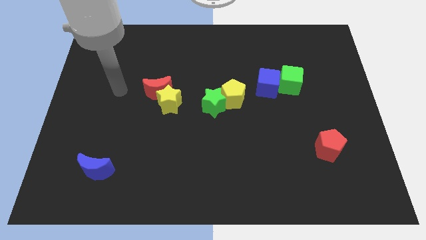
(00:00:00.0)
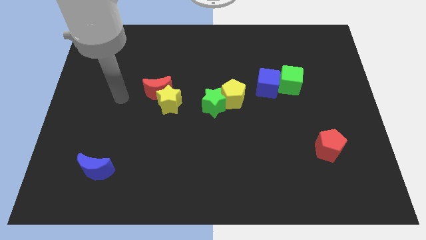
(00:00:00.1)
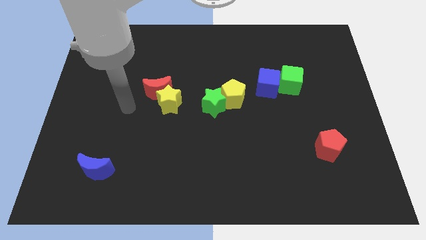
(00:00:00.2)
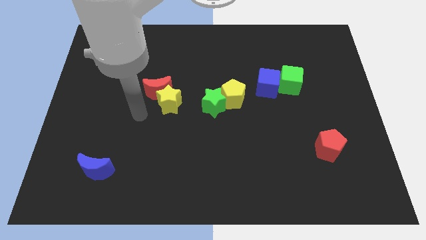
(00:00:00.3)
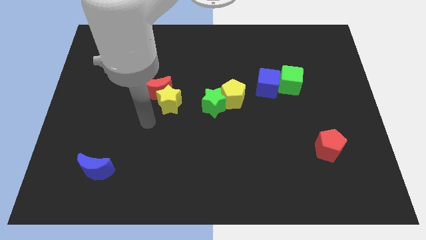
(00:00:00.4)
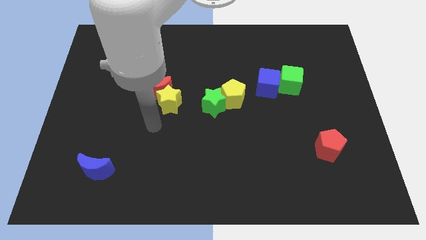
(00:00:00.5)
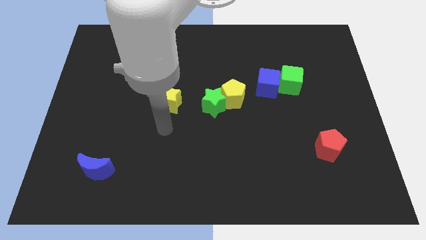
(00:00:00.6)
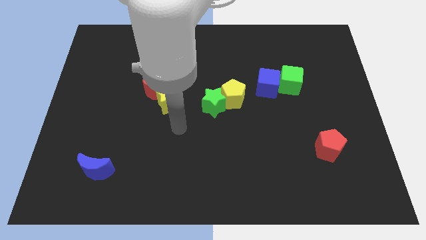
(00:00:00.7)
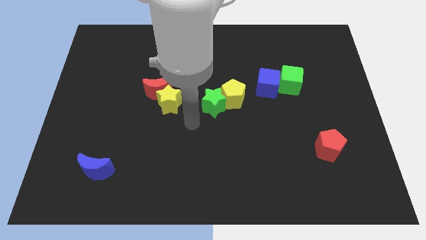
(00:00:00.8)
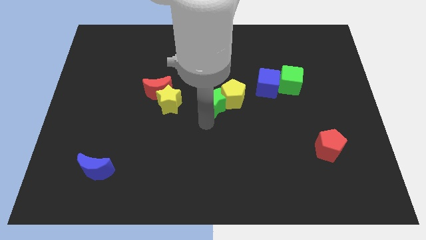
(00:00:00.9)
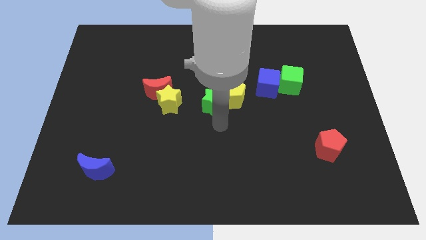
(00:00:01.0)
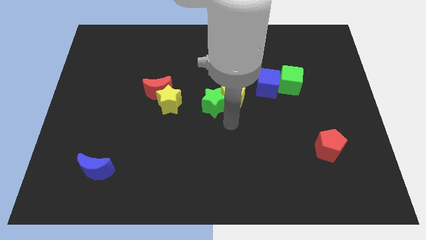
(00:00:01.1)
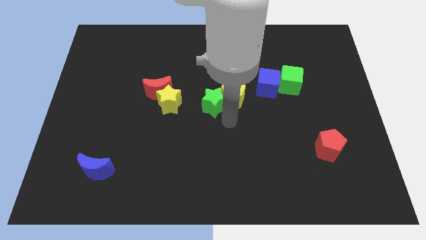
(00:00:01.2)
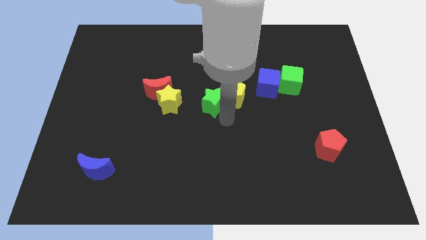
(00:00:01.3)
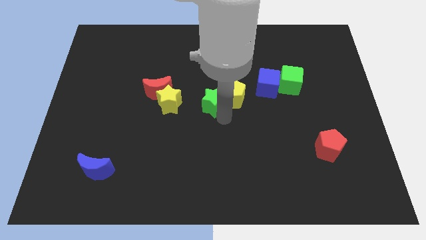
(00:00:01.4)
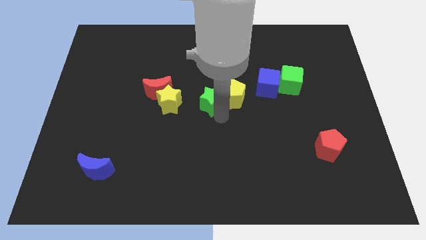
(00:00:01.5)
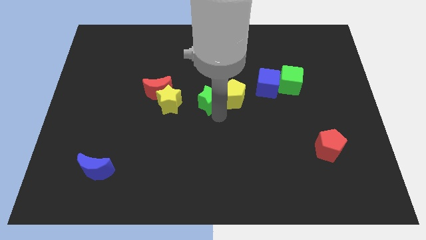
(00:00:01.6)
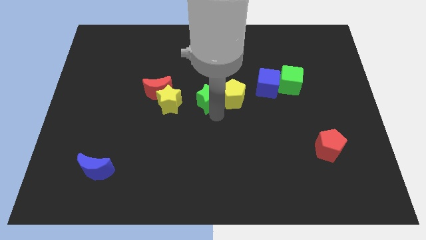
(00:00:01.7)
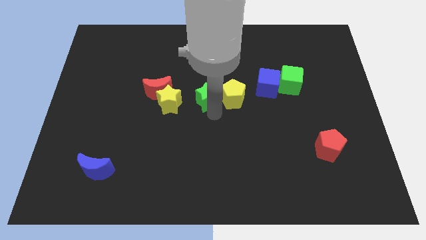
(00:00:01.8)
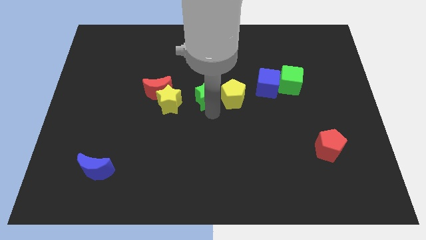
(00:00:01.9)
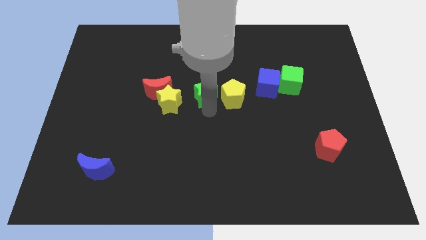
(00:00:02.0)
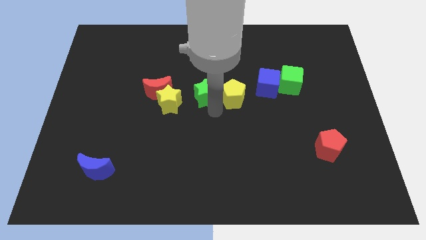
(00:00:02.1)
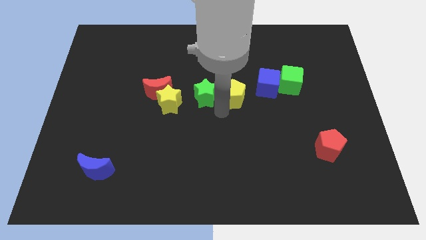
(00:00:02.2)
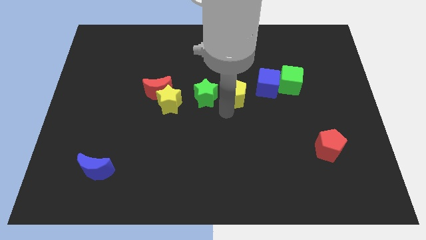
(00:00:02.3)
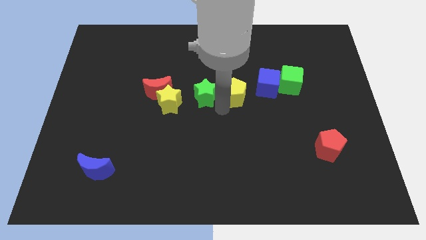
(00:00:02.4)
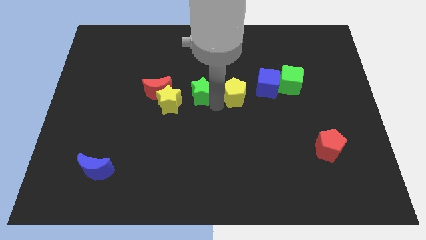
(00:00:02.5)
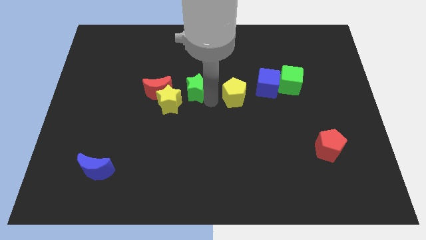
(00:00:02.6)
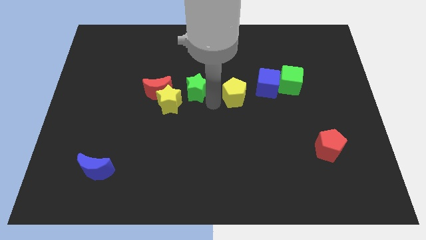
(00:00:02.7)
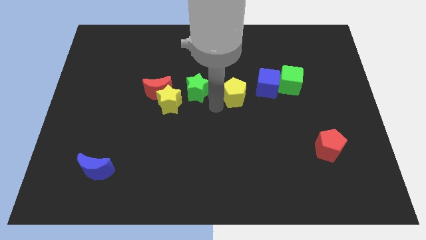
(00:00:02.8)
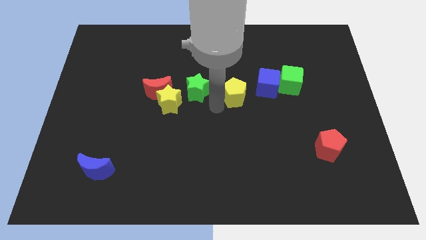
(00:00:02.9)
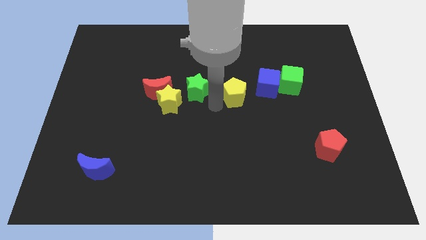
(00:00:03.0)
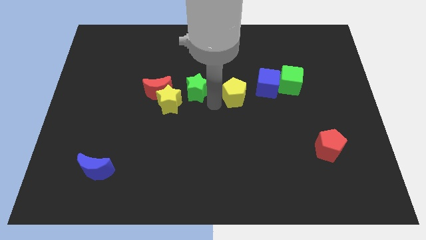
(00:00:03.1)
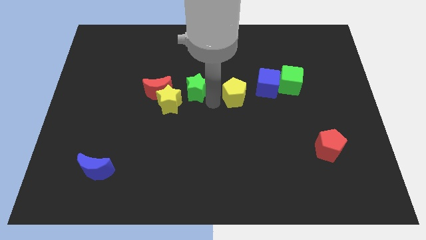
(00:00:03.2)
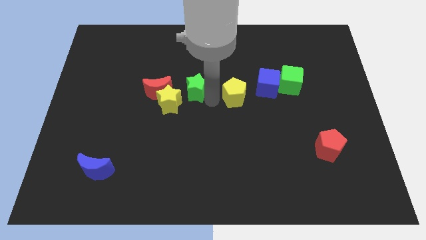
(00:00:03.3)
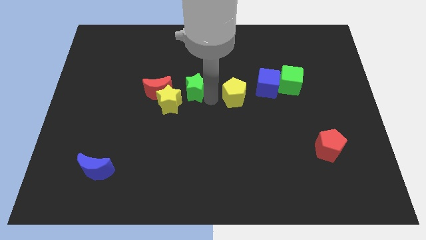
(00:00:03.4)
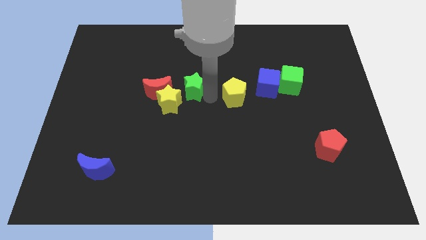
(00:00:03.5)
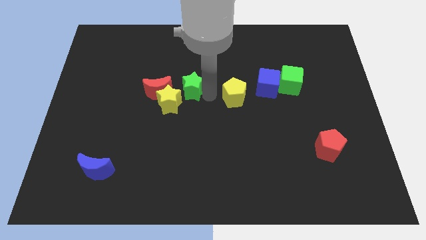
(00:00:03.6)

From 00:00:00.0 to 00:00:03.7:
slightly move the green star upwards and left diagonally

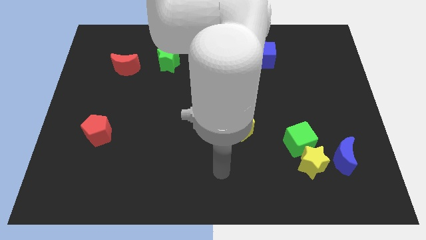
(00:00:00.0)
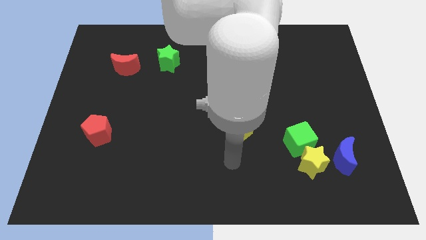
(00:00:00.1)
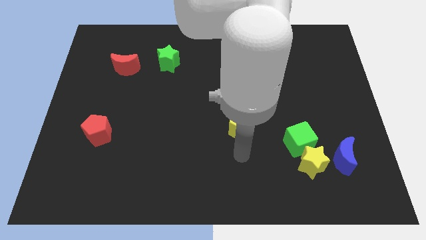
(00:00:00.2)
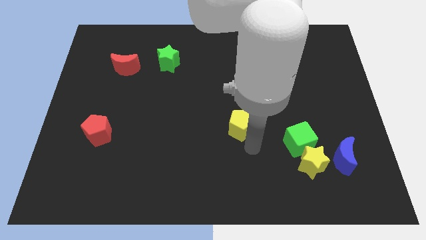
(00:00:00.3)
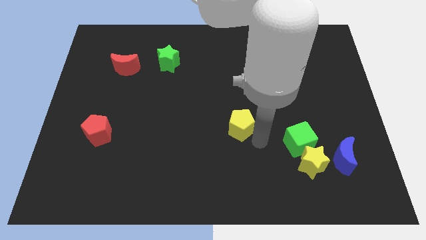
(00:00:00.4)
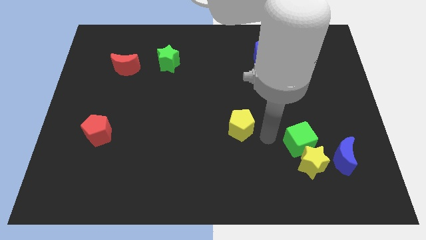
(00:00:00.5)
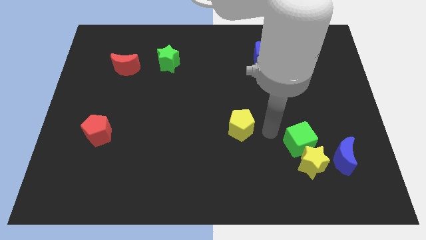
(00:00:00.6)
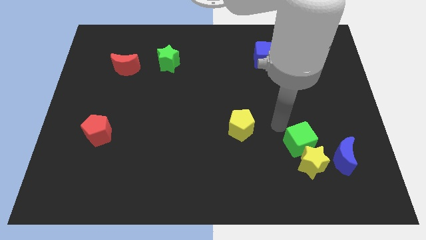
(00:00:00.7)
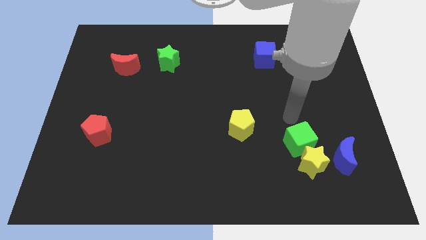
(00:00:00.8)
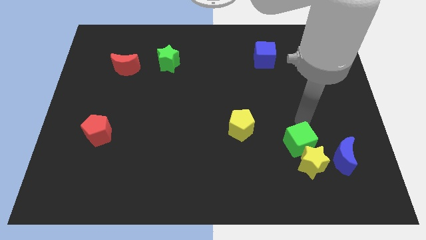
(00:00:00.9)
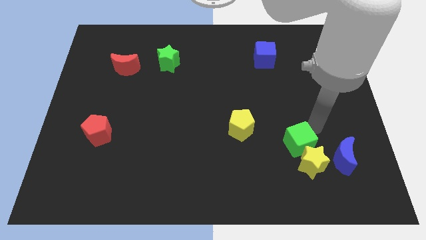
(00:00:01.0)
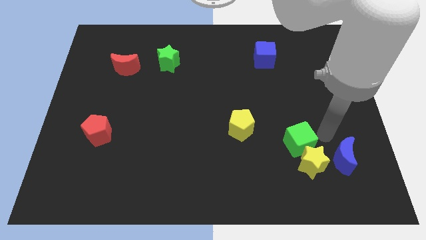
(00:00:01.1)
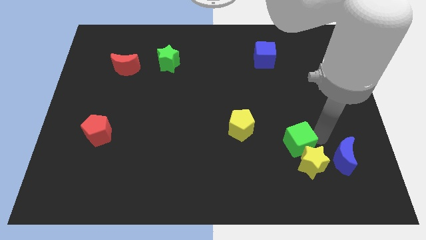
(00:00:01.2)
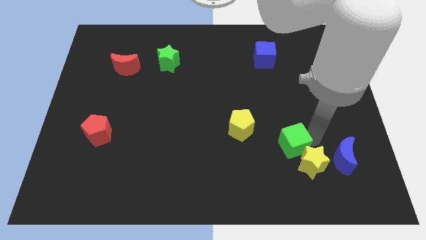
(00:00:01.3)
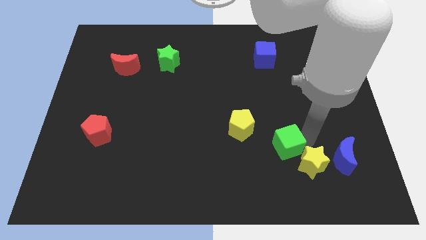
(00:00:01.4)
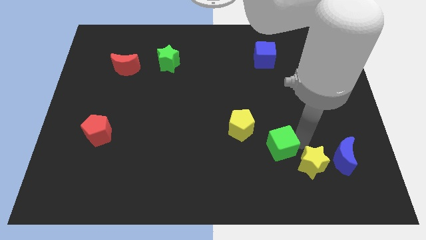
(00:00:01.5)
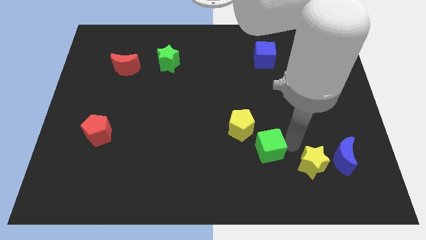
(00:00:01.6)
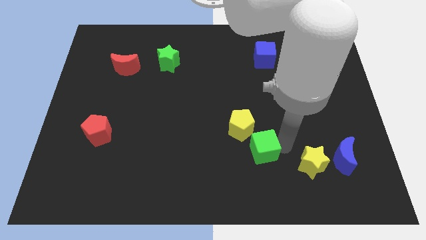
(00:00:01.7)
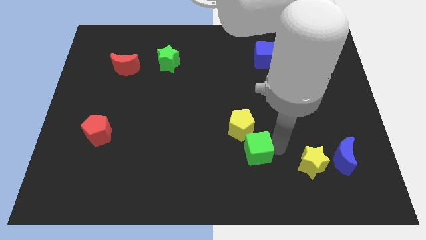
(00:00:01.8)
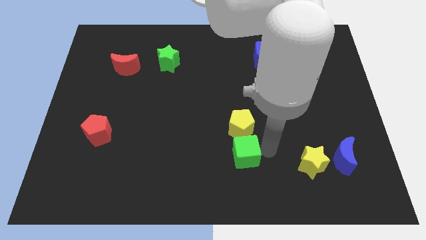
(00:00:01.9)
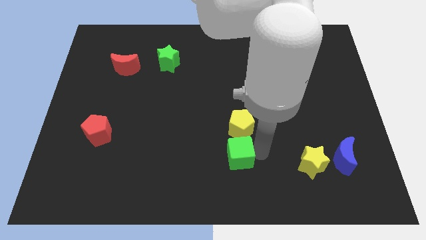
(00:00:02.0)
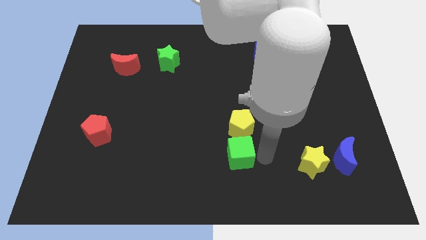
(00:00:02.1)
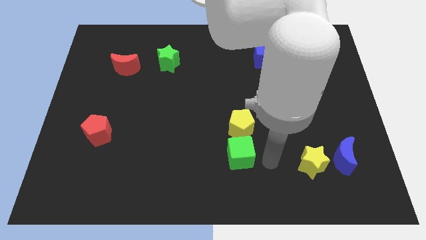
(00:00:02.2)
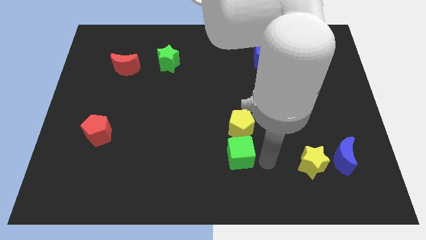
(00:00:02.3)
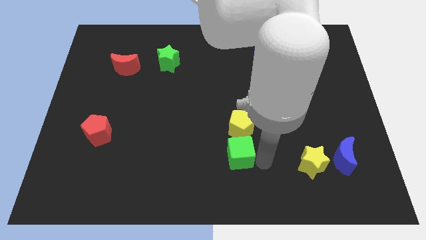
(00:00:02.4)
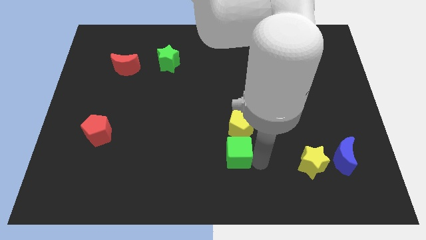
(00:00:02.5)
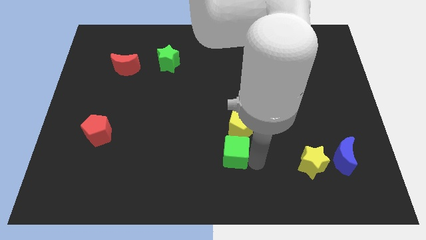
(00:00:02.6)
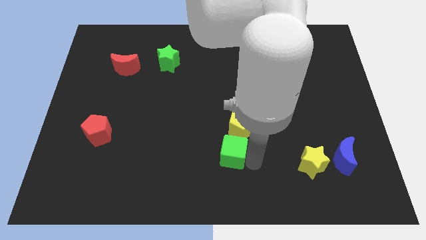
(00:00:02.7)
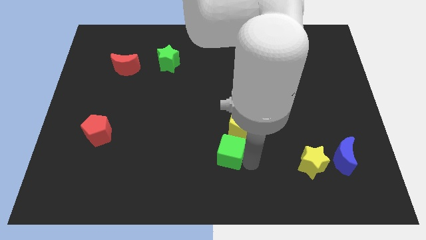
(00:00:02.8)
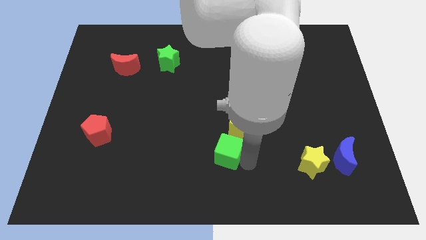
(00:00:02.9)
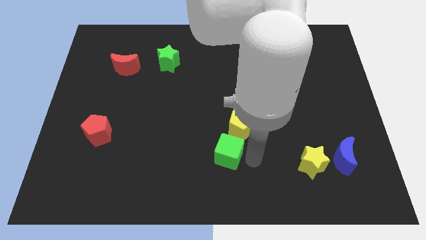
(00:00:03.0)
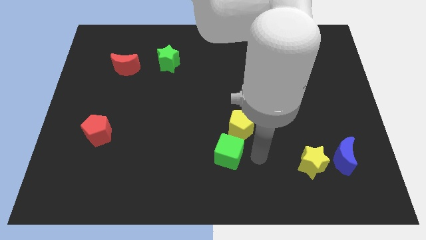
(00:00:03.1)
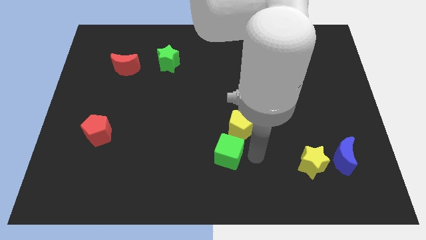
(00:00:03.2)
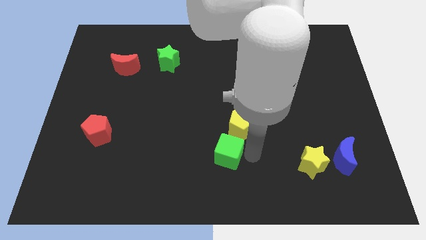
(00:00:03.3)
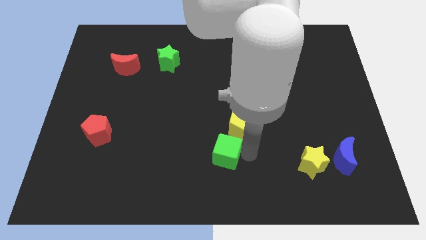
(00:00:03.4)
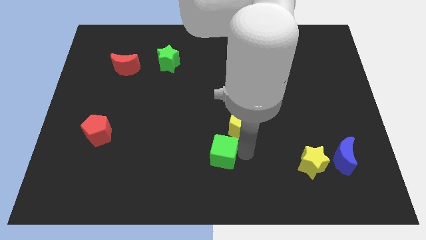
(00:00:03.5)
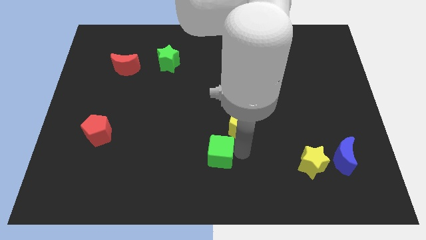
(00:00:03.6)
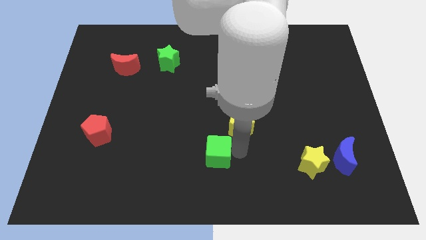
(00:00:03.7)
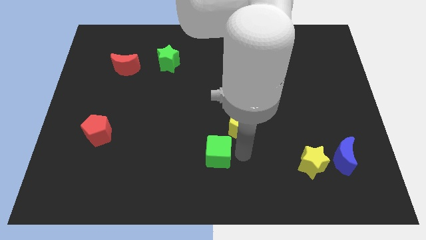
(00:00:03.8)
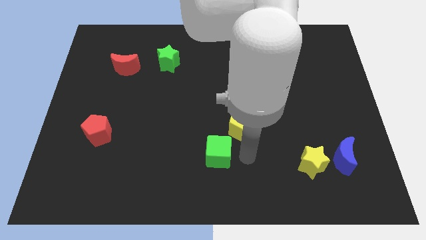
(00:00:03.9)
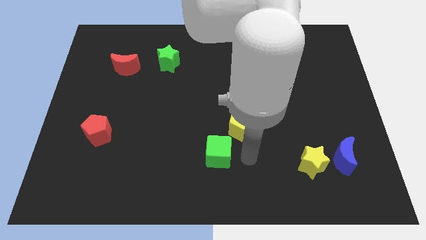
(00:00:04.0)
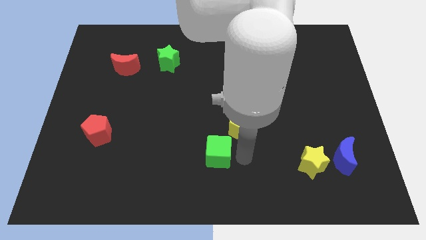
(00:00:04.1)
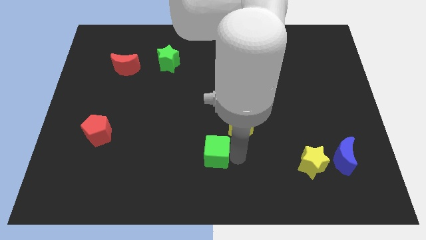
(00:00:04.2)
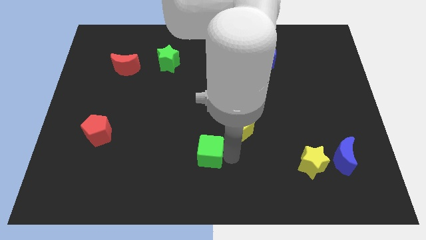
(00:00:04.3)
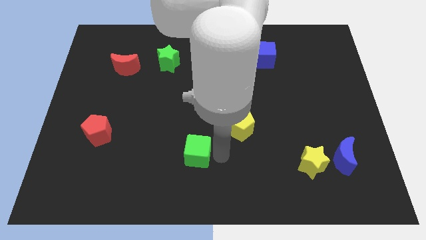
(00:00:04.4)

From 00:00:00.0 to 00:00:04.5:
move the green cube left
